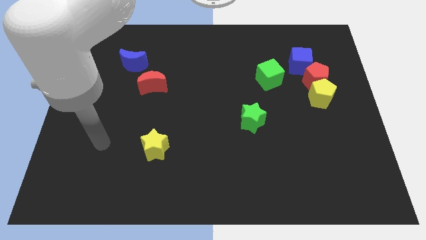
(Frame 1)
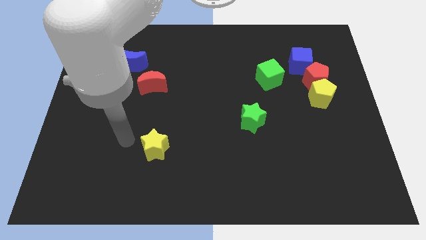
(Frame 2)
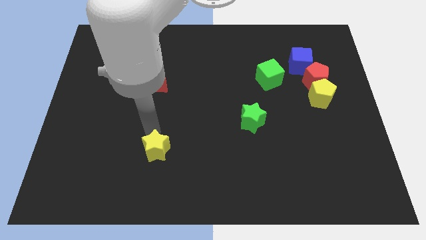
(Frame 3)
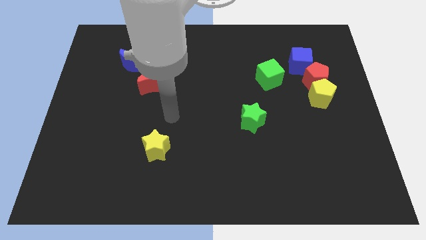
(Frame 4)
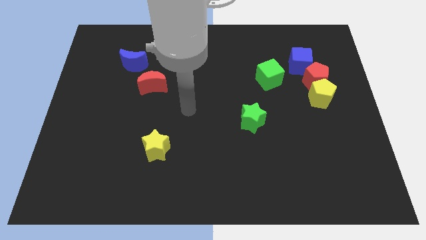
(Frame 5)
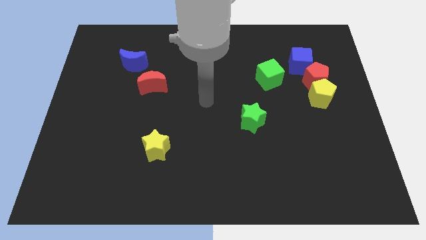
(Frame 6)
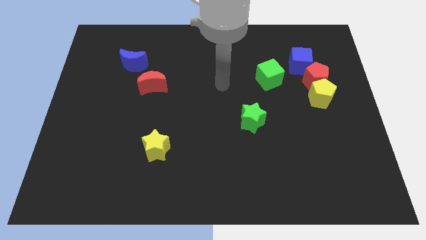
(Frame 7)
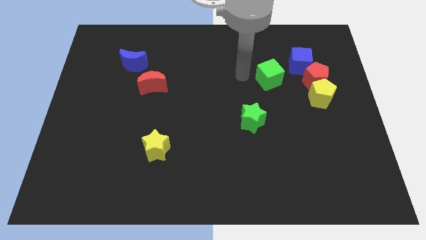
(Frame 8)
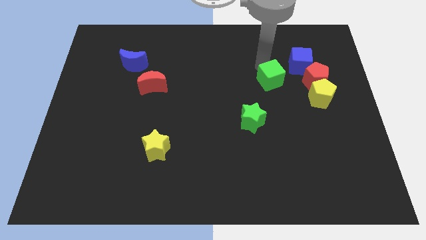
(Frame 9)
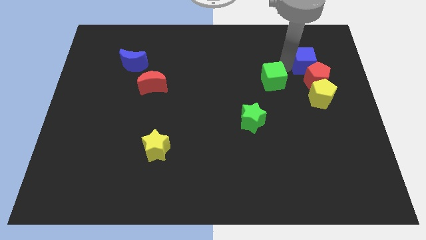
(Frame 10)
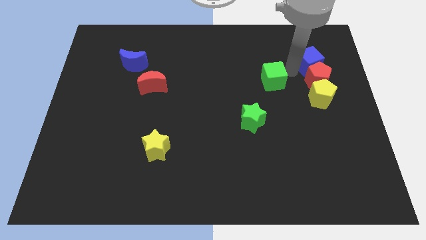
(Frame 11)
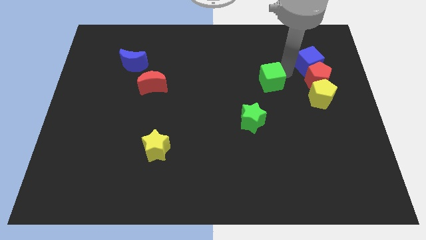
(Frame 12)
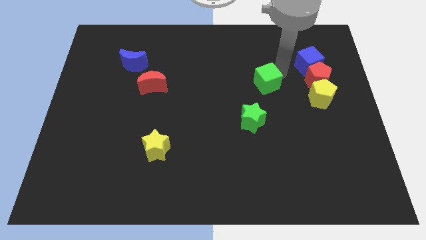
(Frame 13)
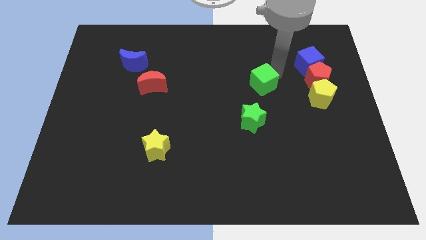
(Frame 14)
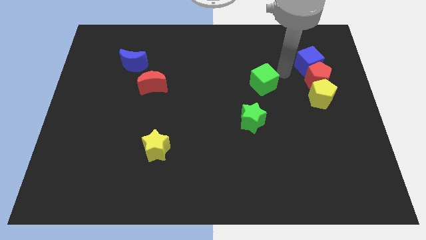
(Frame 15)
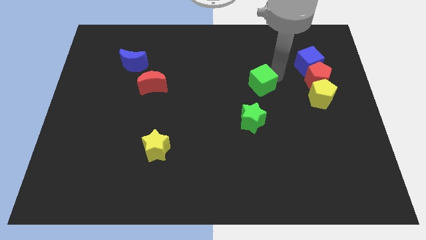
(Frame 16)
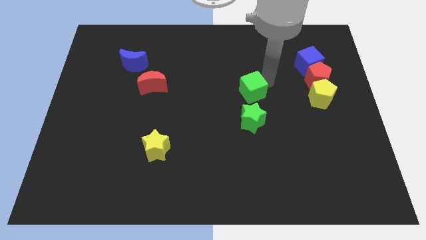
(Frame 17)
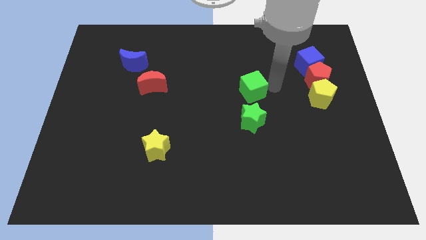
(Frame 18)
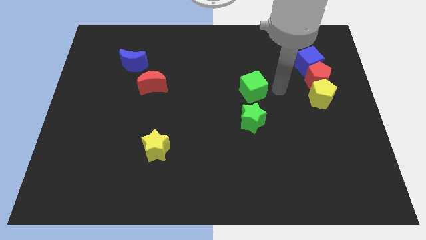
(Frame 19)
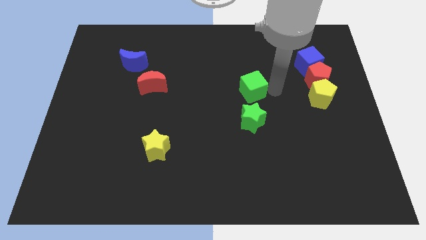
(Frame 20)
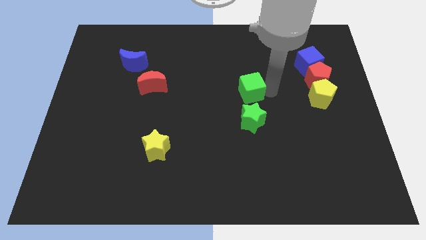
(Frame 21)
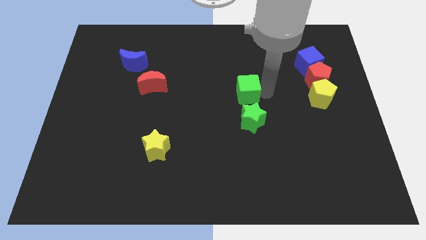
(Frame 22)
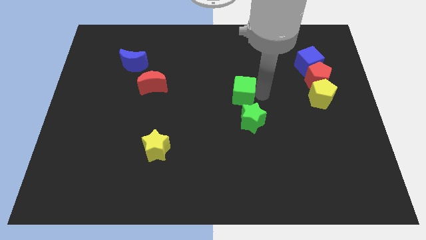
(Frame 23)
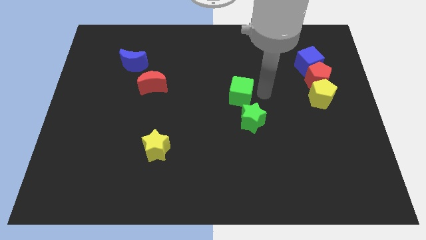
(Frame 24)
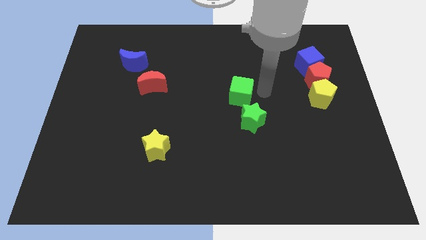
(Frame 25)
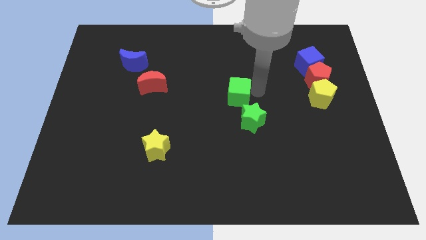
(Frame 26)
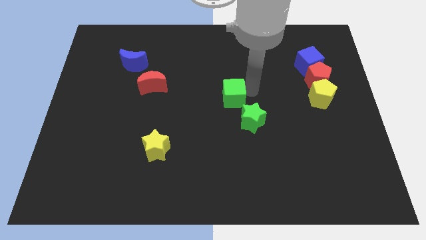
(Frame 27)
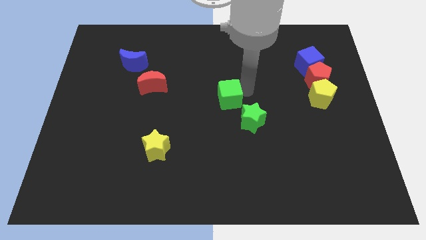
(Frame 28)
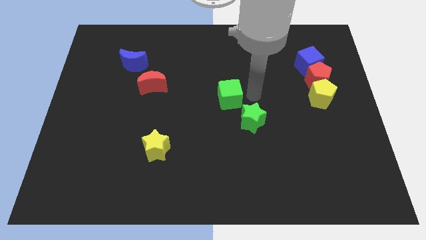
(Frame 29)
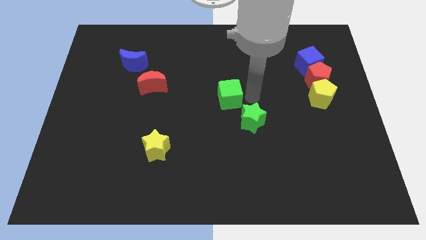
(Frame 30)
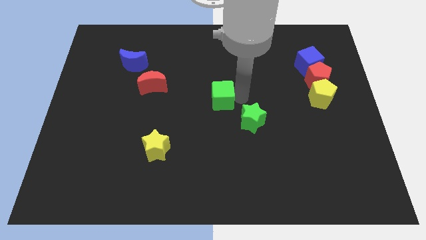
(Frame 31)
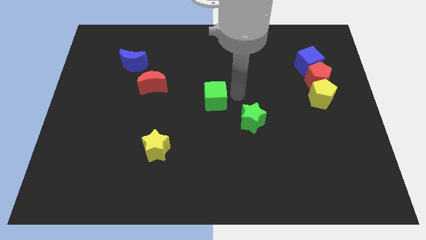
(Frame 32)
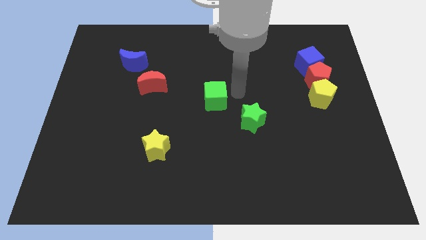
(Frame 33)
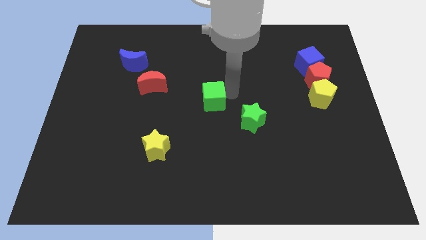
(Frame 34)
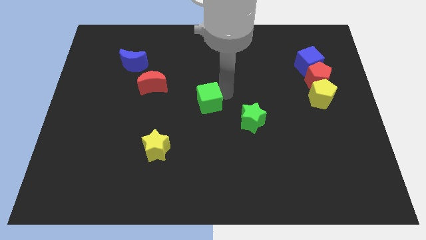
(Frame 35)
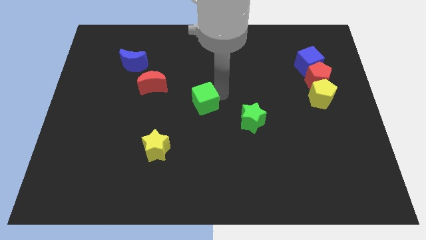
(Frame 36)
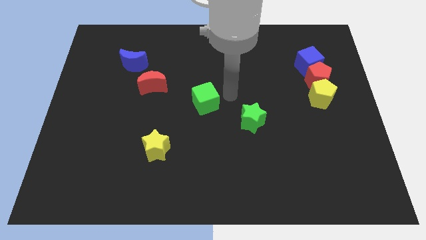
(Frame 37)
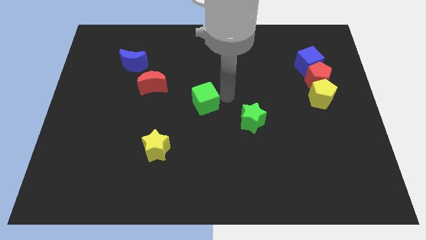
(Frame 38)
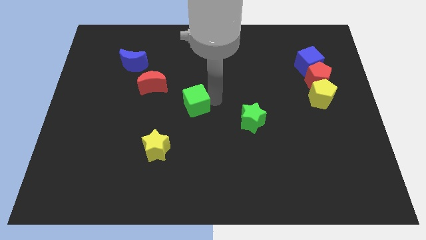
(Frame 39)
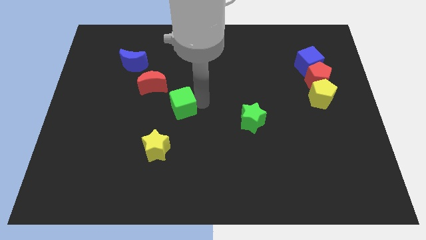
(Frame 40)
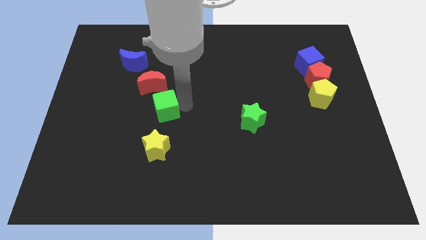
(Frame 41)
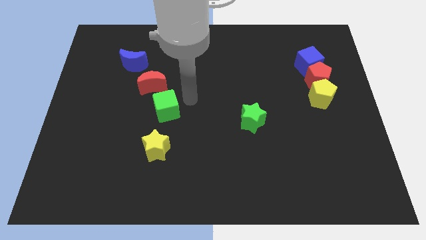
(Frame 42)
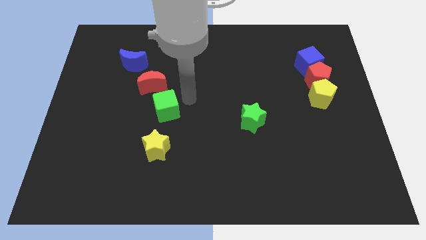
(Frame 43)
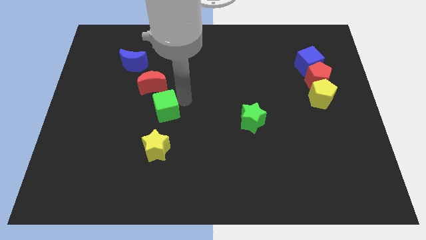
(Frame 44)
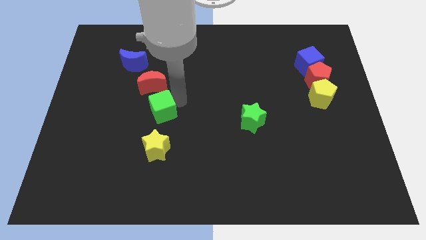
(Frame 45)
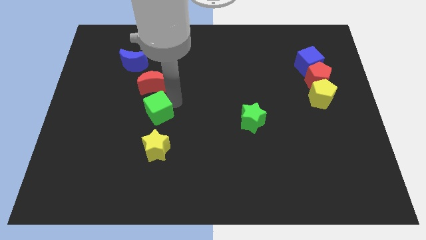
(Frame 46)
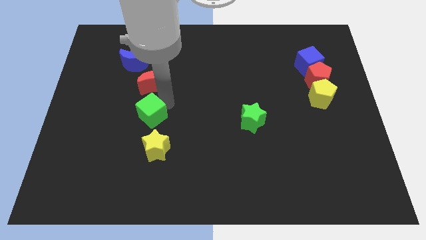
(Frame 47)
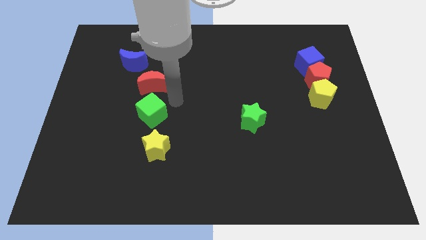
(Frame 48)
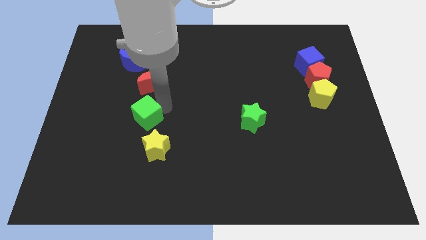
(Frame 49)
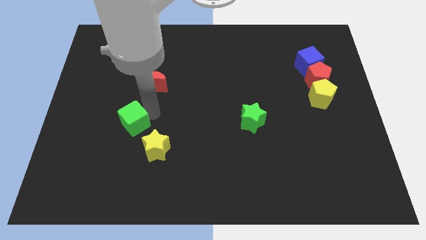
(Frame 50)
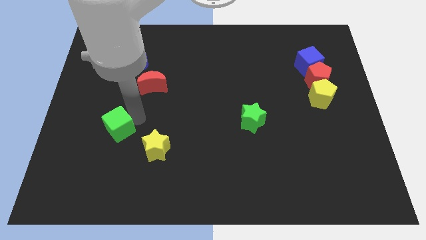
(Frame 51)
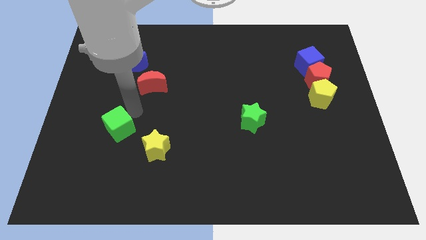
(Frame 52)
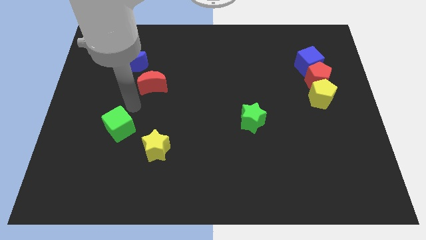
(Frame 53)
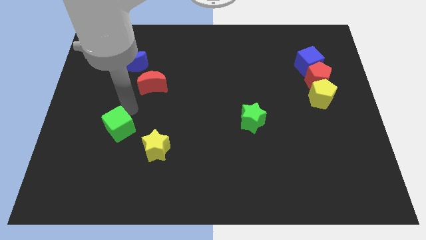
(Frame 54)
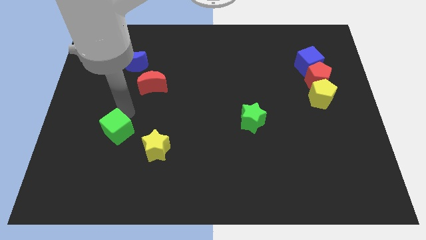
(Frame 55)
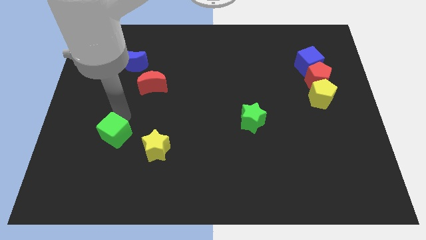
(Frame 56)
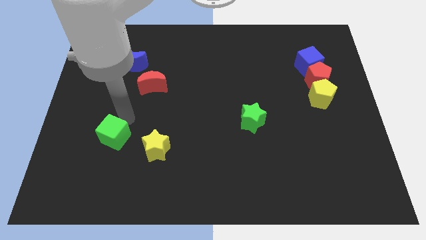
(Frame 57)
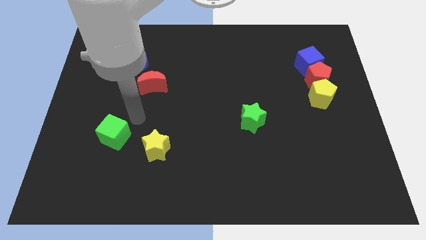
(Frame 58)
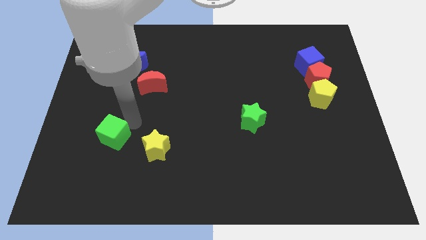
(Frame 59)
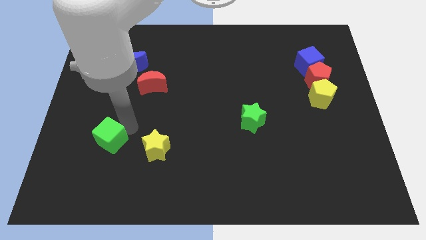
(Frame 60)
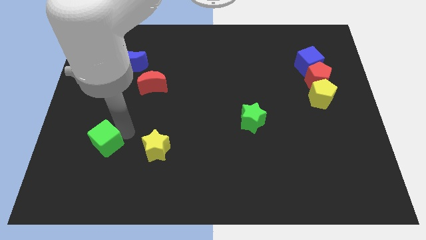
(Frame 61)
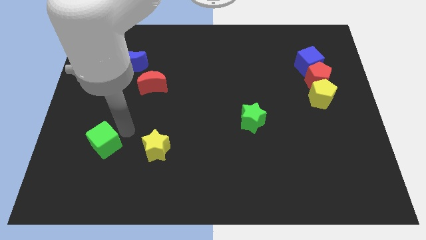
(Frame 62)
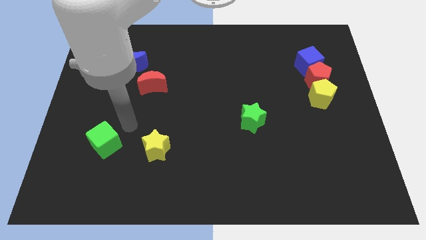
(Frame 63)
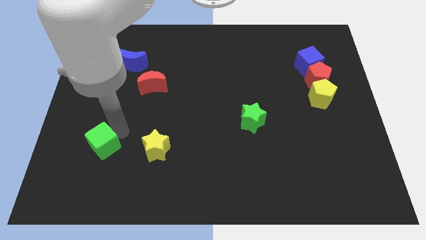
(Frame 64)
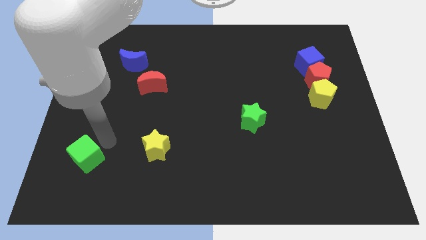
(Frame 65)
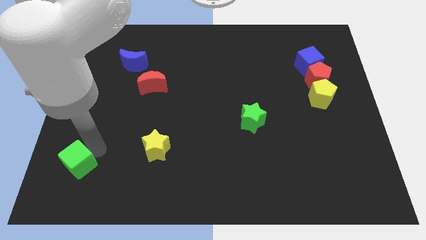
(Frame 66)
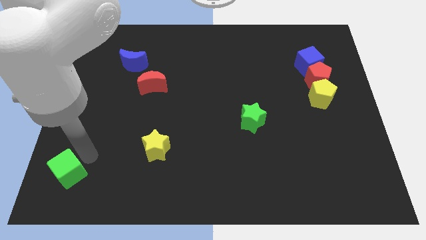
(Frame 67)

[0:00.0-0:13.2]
put the green cube to the bottom left
